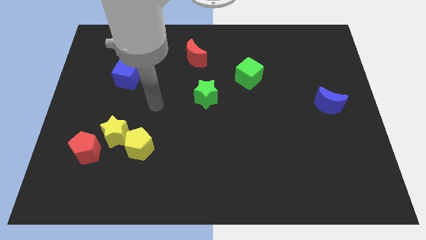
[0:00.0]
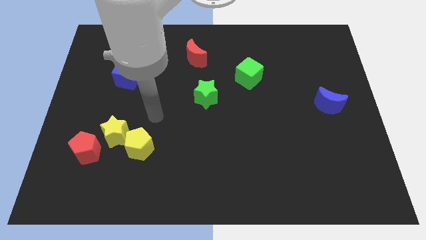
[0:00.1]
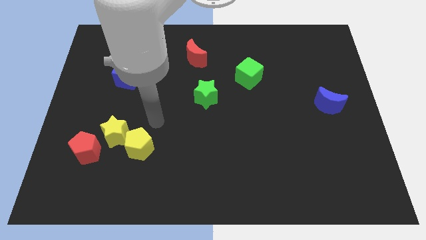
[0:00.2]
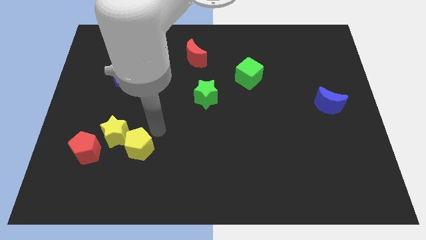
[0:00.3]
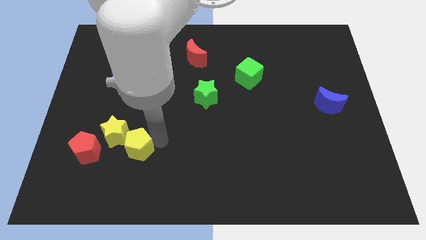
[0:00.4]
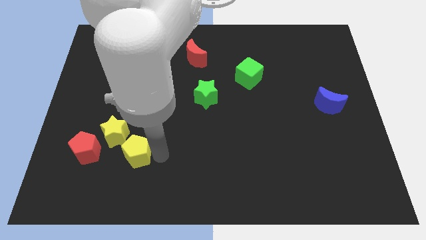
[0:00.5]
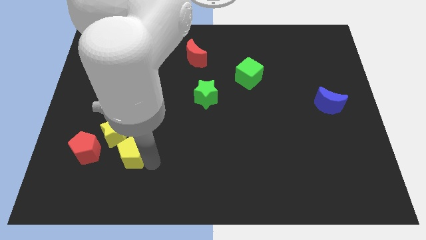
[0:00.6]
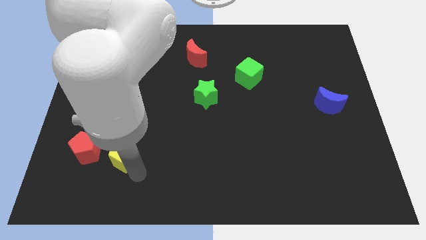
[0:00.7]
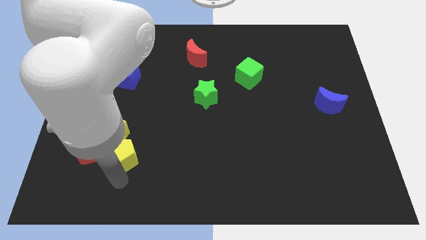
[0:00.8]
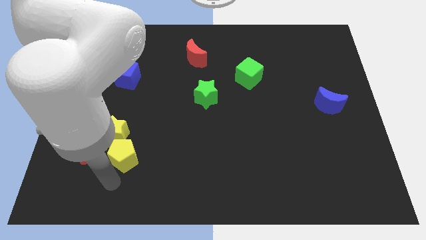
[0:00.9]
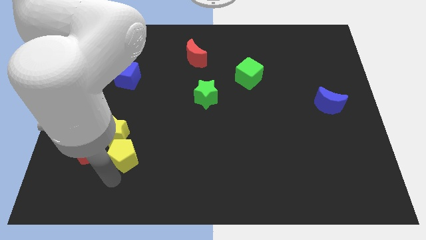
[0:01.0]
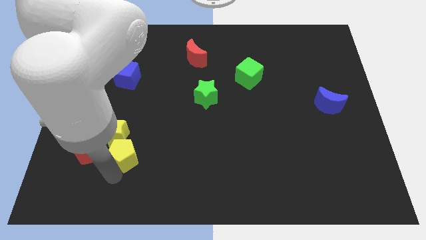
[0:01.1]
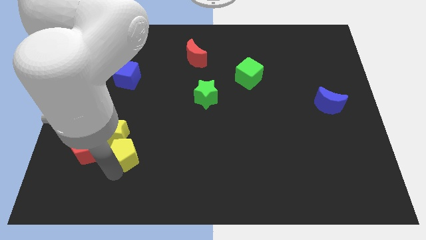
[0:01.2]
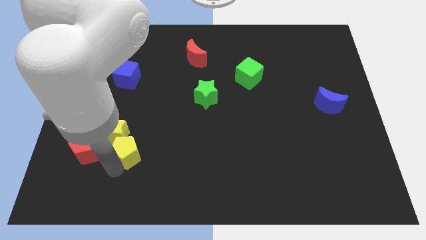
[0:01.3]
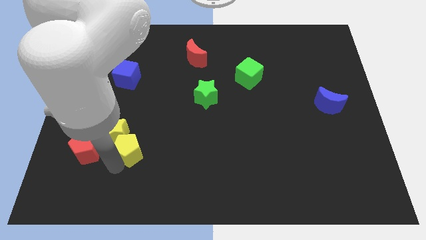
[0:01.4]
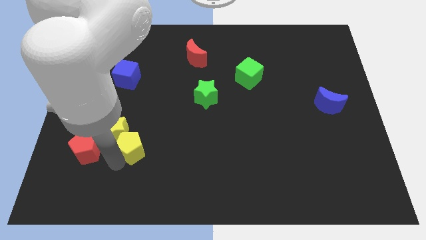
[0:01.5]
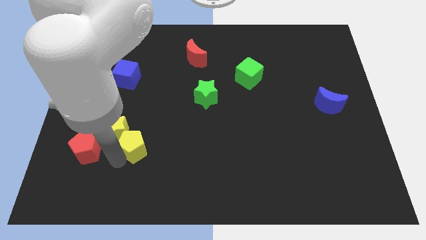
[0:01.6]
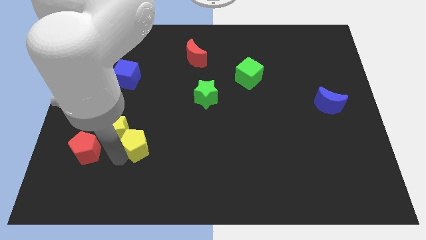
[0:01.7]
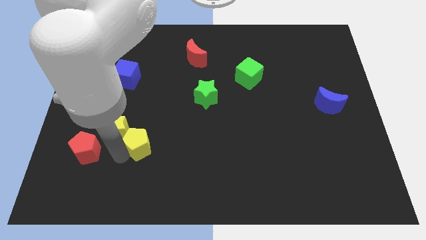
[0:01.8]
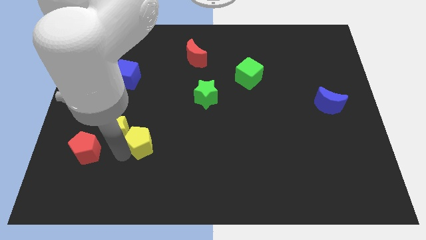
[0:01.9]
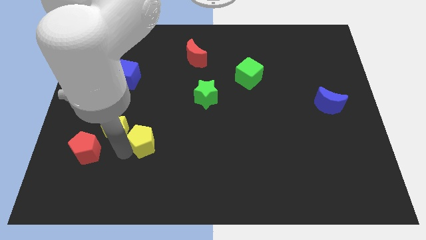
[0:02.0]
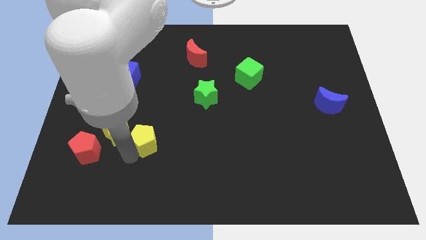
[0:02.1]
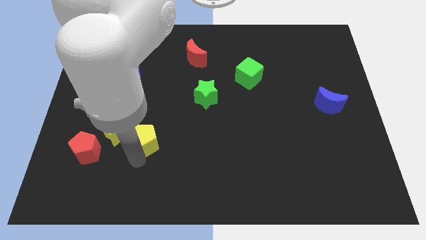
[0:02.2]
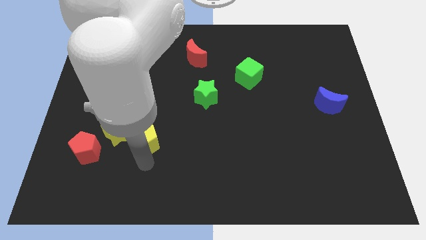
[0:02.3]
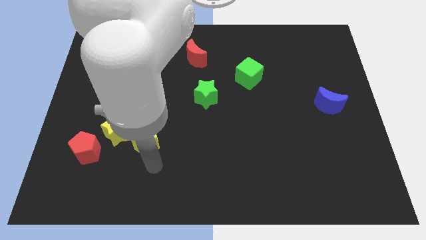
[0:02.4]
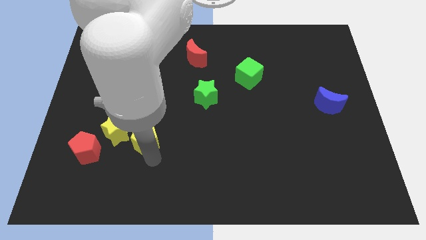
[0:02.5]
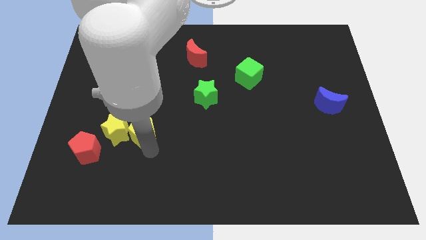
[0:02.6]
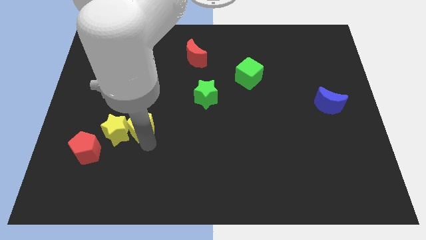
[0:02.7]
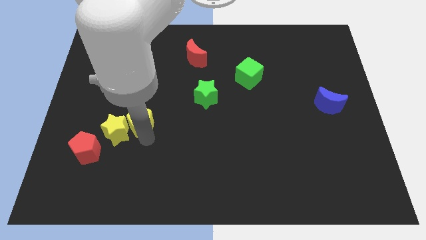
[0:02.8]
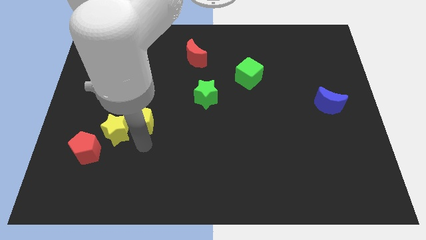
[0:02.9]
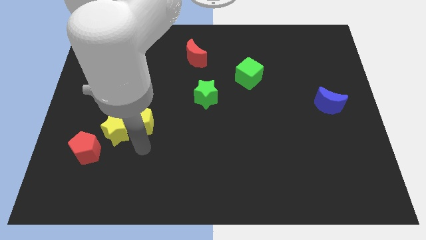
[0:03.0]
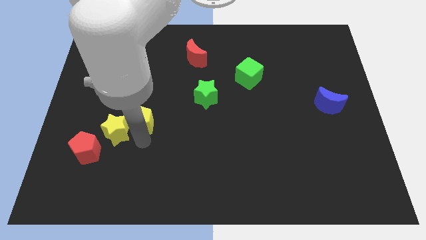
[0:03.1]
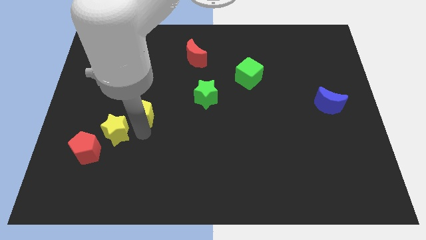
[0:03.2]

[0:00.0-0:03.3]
push the yellow pentagon somewhat upwards

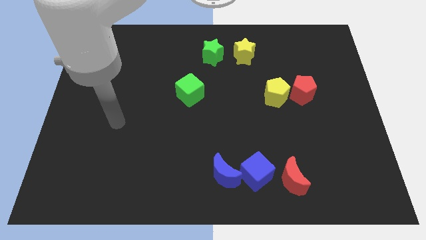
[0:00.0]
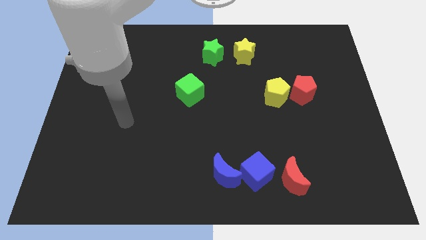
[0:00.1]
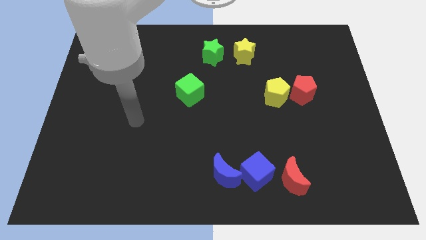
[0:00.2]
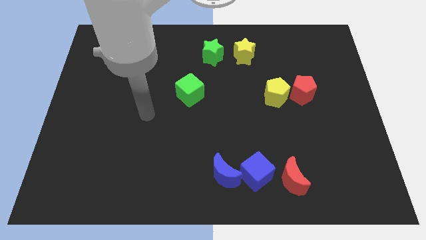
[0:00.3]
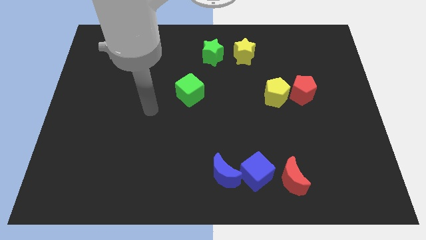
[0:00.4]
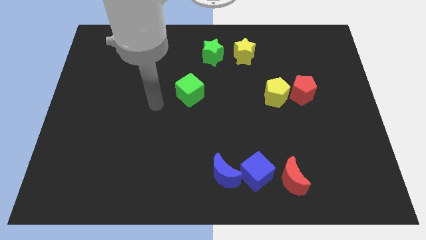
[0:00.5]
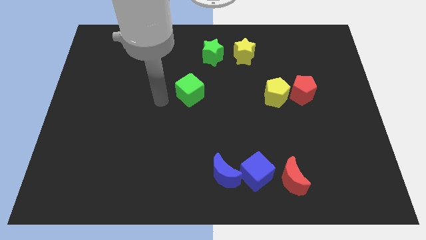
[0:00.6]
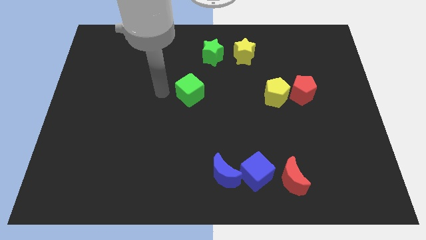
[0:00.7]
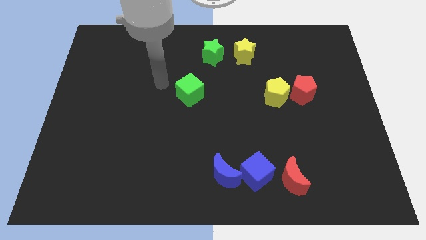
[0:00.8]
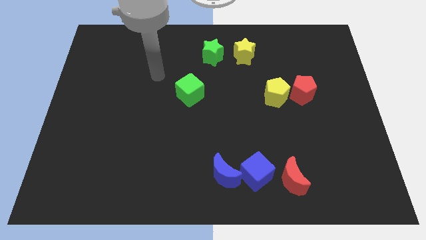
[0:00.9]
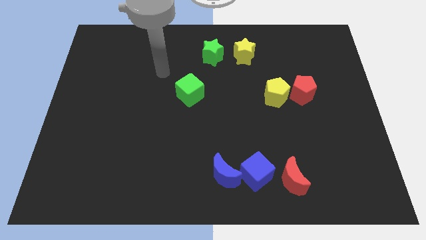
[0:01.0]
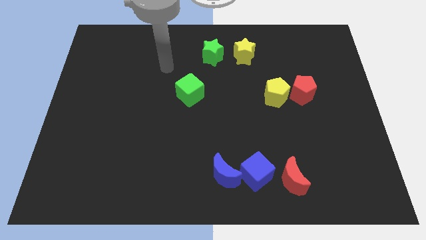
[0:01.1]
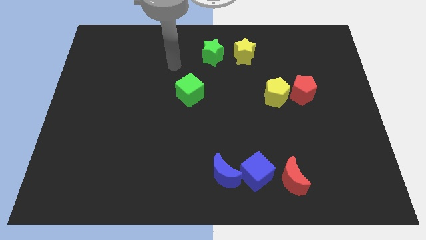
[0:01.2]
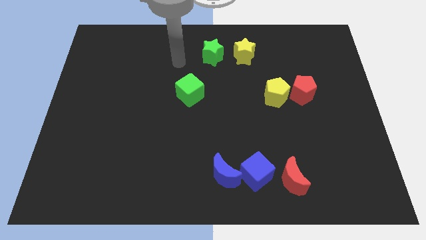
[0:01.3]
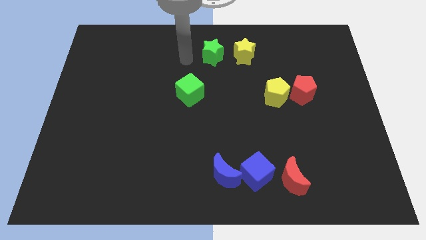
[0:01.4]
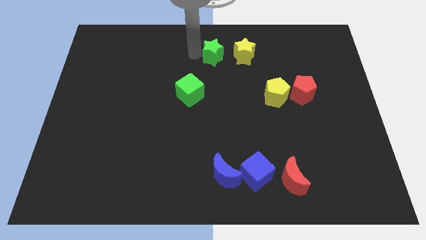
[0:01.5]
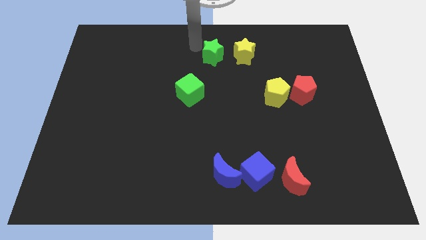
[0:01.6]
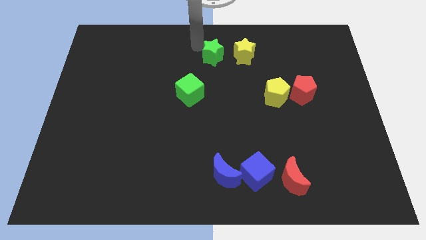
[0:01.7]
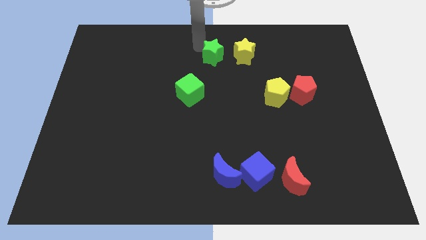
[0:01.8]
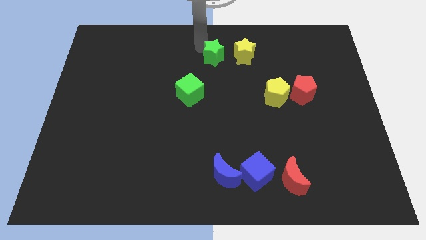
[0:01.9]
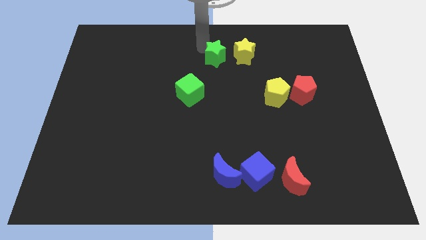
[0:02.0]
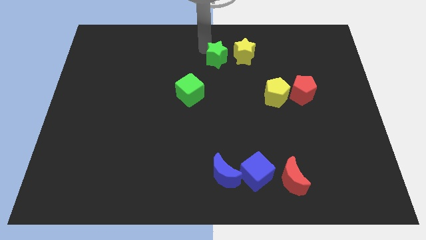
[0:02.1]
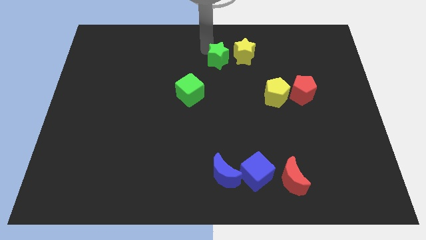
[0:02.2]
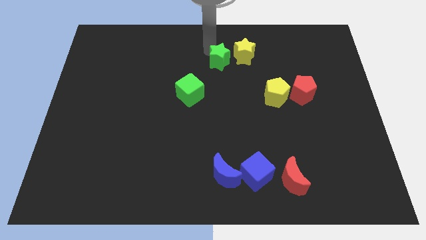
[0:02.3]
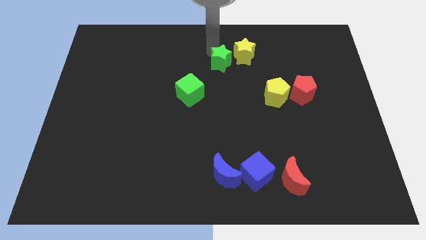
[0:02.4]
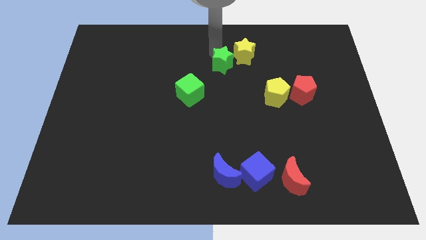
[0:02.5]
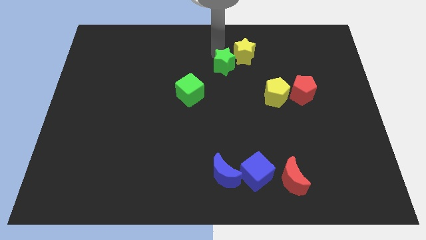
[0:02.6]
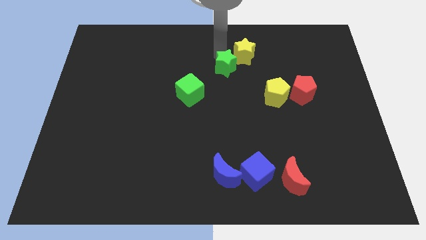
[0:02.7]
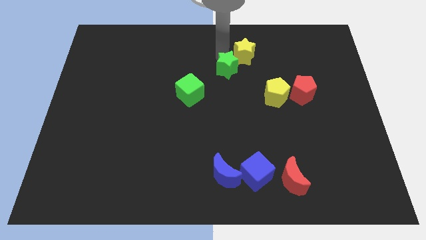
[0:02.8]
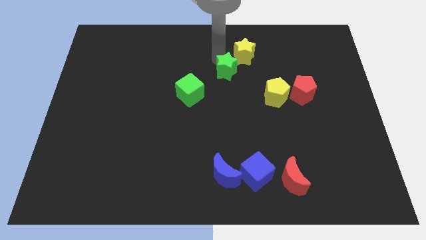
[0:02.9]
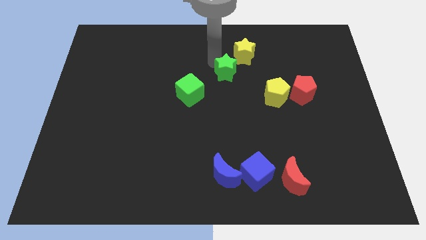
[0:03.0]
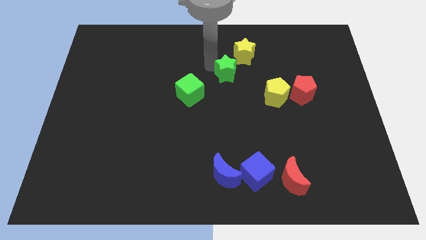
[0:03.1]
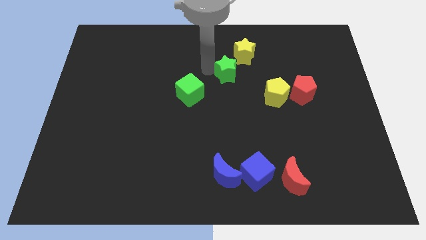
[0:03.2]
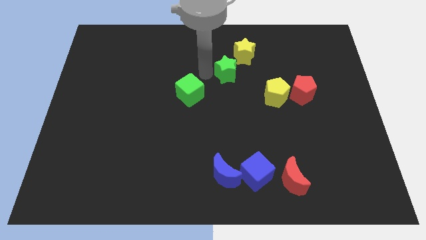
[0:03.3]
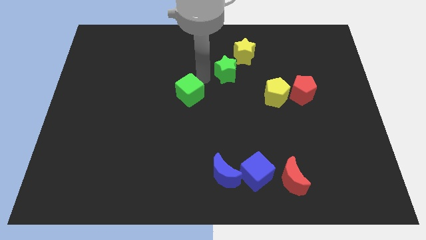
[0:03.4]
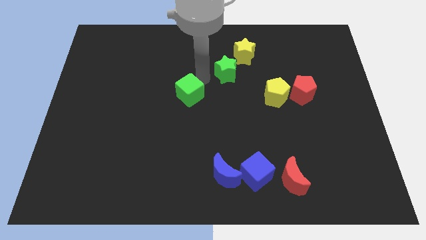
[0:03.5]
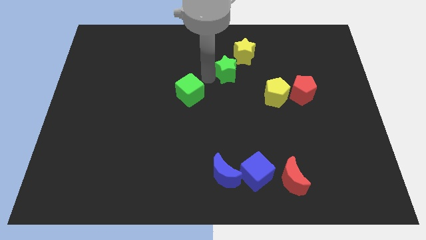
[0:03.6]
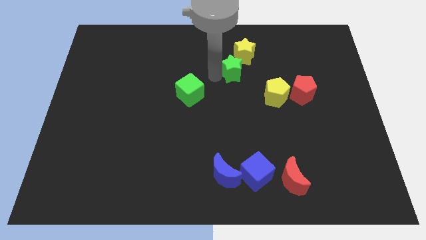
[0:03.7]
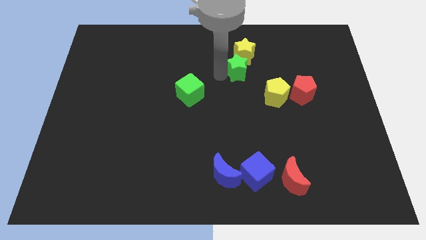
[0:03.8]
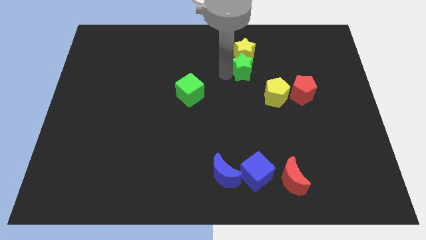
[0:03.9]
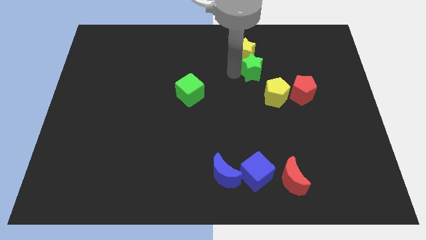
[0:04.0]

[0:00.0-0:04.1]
move the green star right somewhat

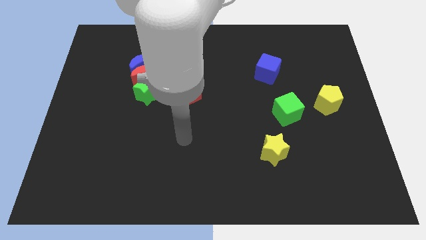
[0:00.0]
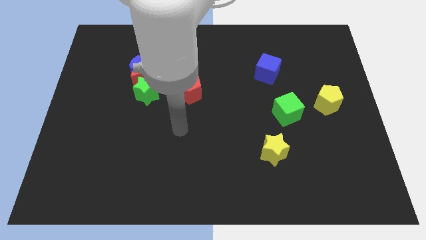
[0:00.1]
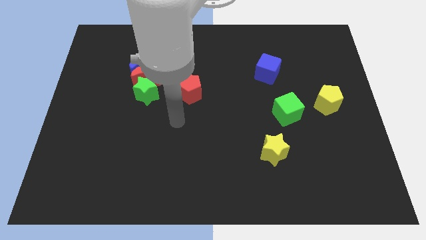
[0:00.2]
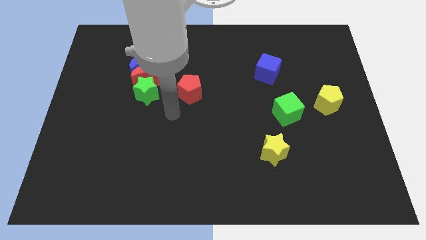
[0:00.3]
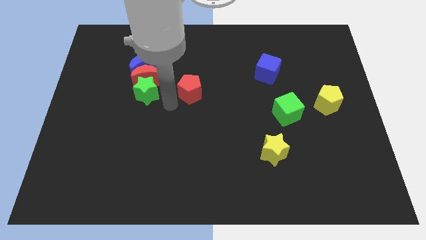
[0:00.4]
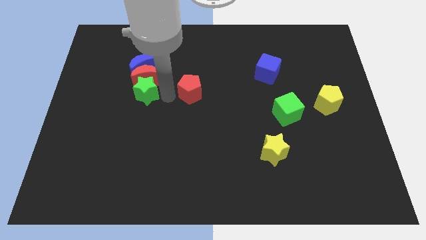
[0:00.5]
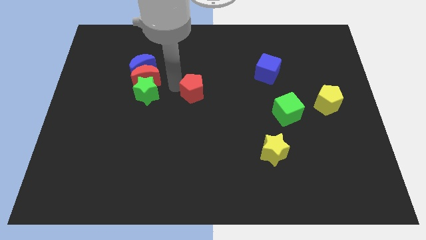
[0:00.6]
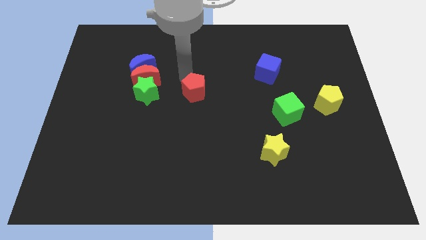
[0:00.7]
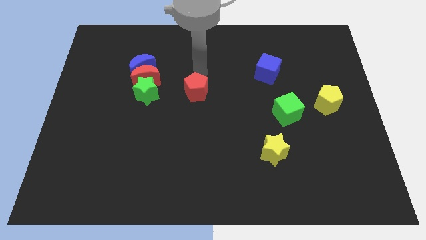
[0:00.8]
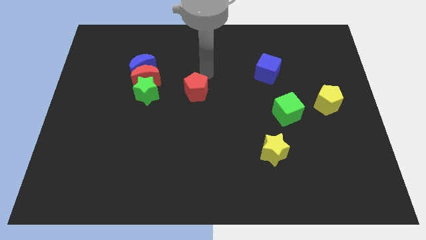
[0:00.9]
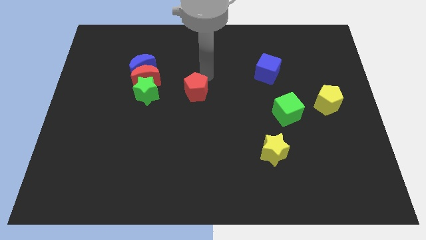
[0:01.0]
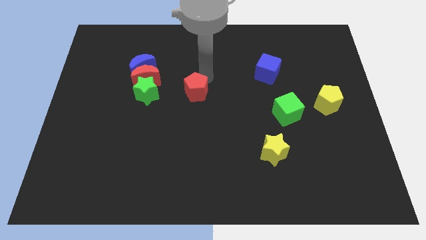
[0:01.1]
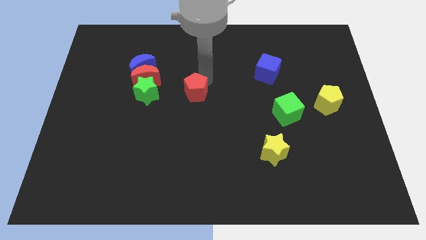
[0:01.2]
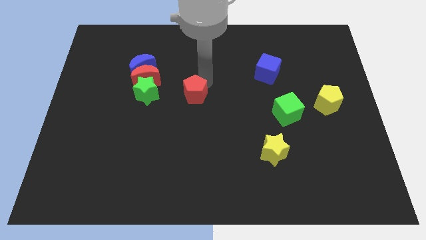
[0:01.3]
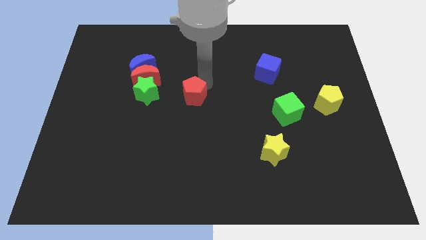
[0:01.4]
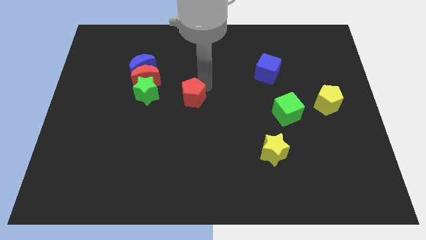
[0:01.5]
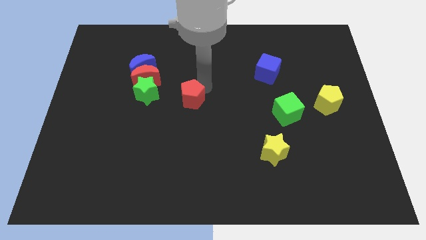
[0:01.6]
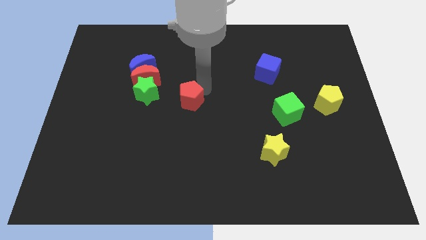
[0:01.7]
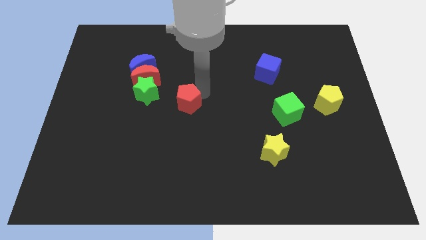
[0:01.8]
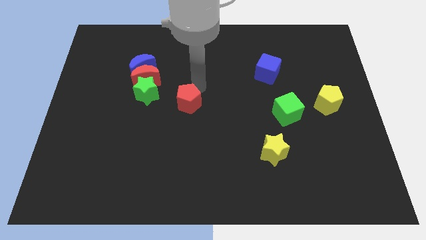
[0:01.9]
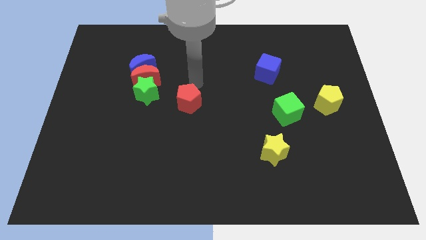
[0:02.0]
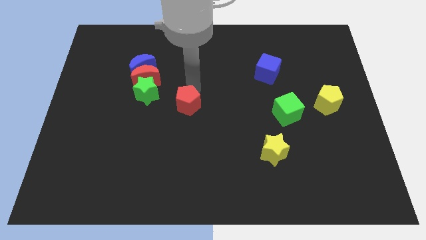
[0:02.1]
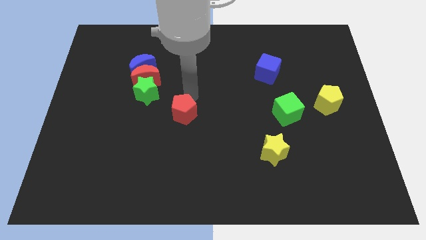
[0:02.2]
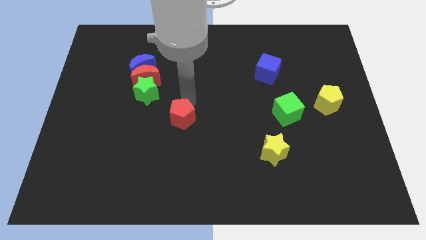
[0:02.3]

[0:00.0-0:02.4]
slide the red pentagon down a bit
